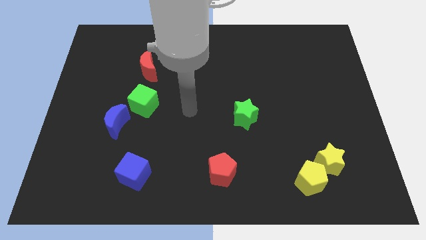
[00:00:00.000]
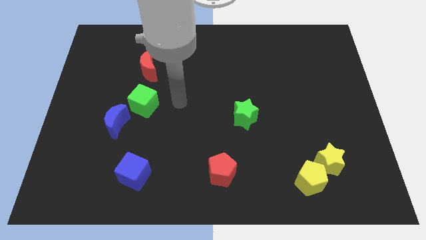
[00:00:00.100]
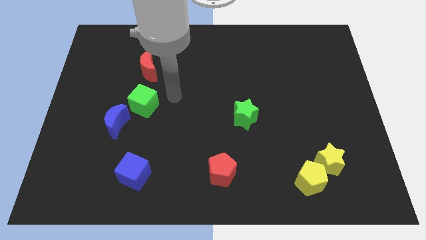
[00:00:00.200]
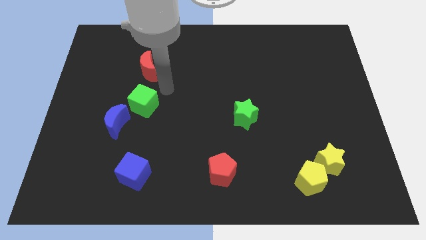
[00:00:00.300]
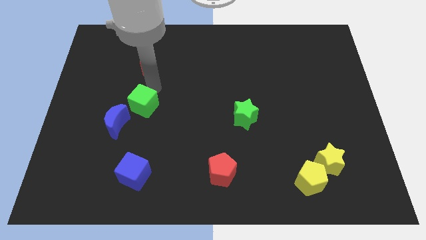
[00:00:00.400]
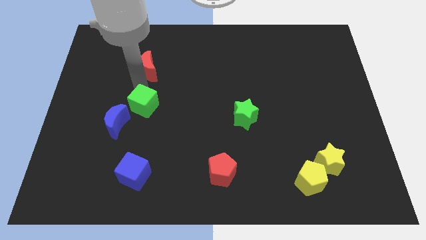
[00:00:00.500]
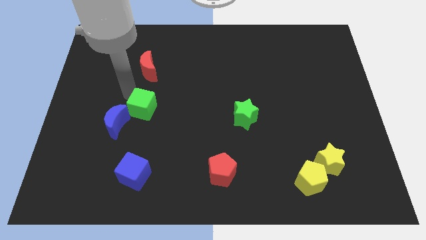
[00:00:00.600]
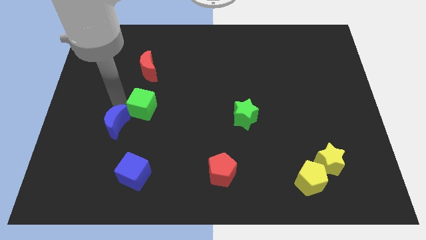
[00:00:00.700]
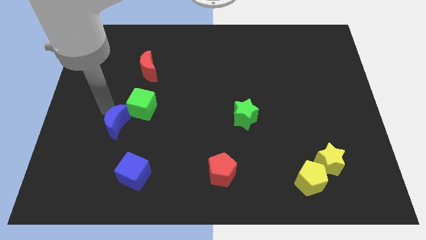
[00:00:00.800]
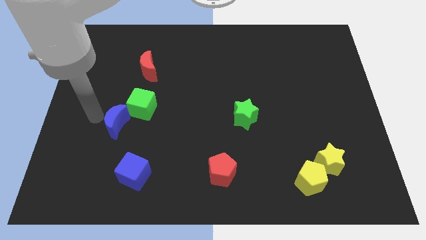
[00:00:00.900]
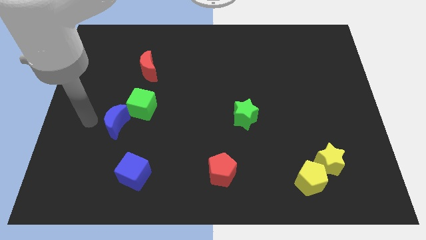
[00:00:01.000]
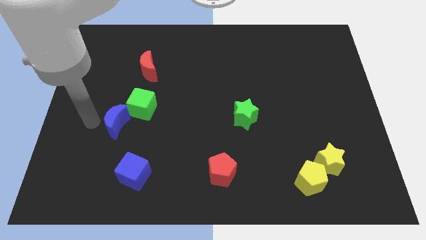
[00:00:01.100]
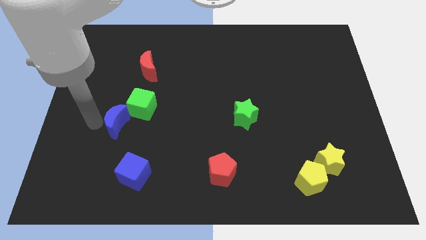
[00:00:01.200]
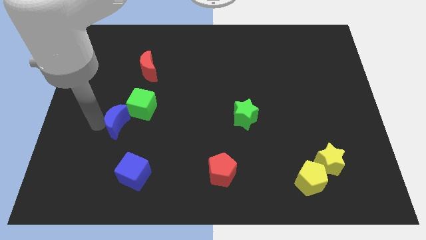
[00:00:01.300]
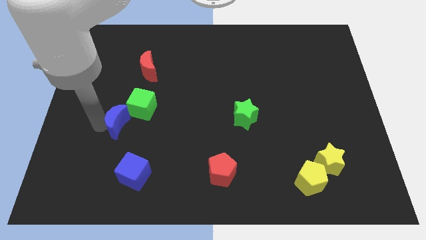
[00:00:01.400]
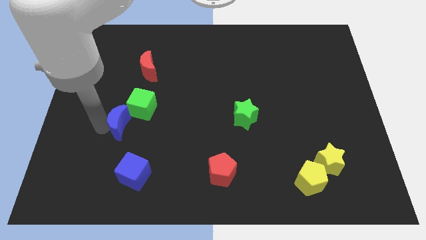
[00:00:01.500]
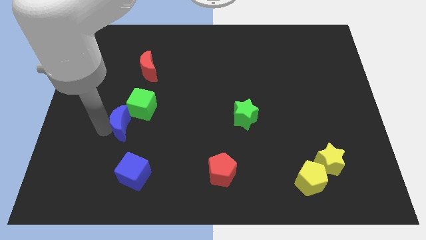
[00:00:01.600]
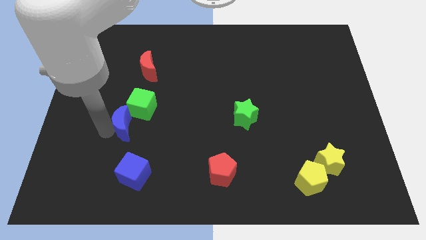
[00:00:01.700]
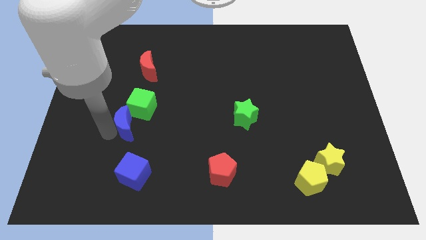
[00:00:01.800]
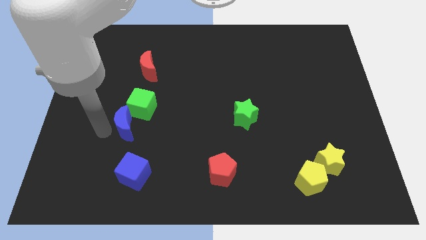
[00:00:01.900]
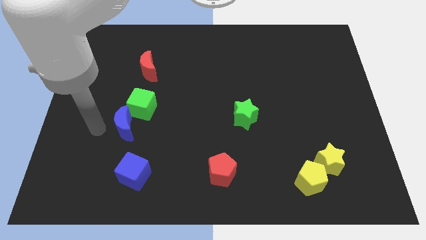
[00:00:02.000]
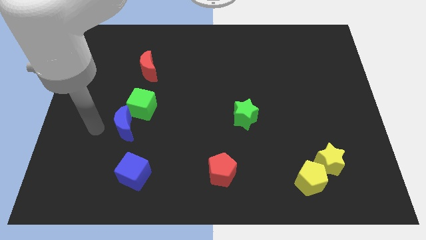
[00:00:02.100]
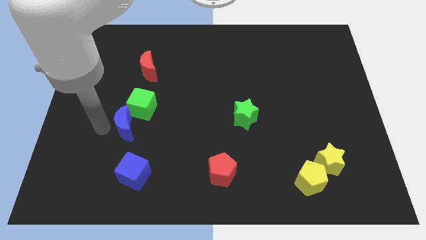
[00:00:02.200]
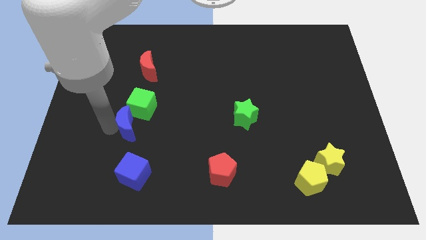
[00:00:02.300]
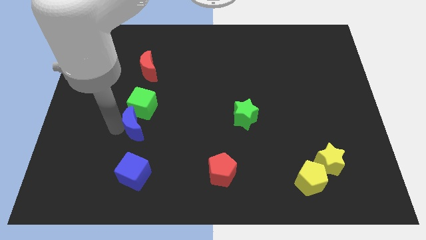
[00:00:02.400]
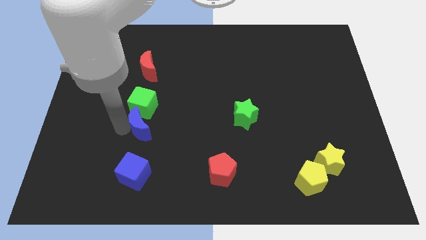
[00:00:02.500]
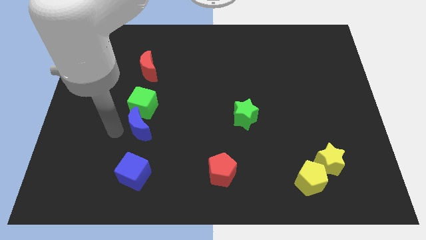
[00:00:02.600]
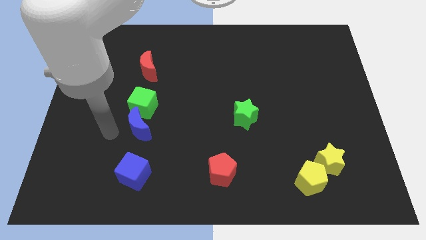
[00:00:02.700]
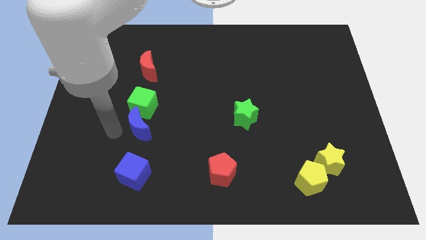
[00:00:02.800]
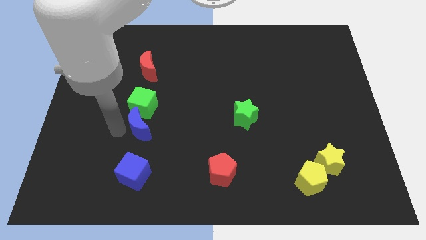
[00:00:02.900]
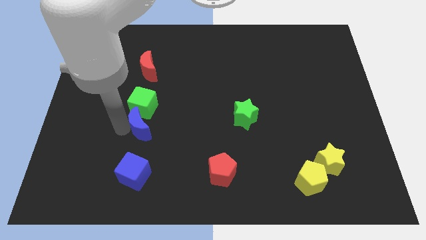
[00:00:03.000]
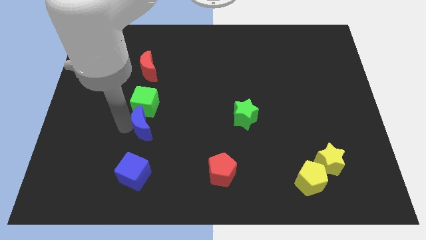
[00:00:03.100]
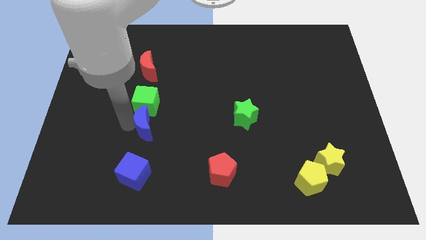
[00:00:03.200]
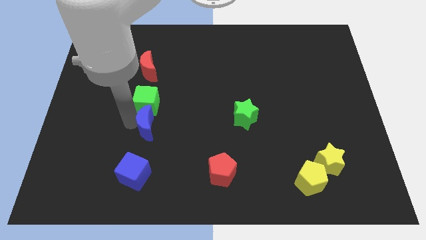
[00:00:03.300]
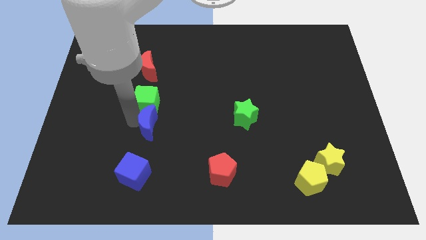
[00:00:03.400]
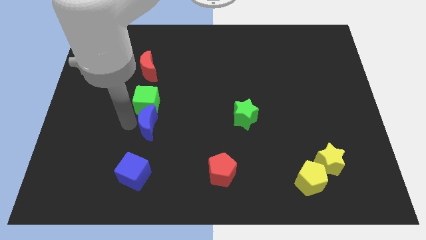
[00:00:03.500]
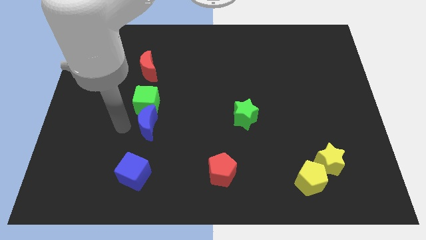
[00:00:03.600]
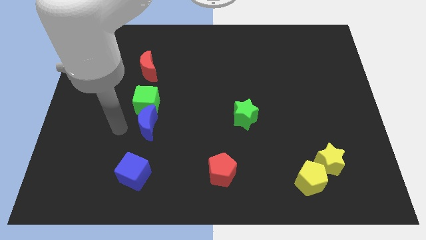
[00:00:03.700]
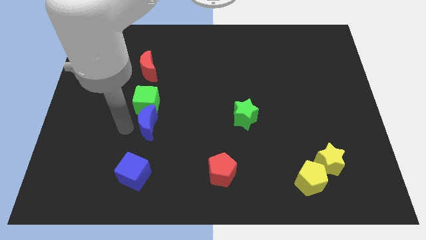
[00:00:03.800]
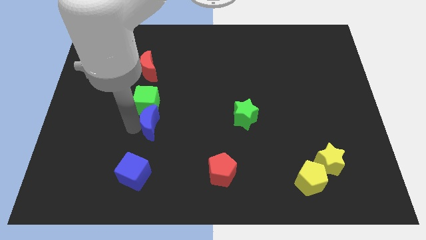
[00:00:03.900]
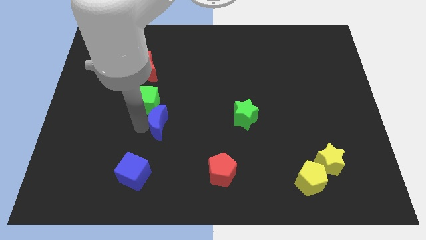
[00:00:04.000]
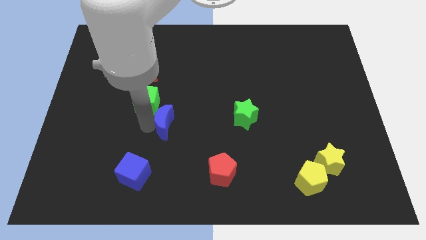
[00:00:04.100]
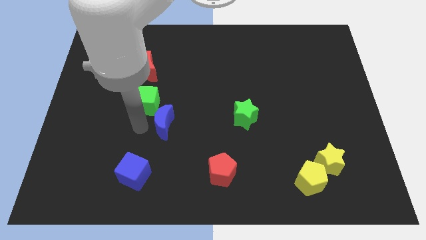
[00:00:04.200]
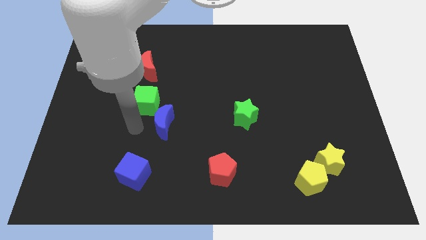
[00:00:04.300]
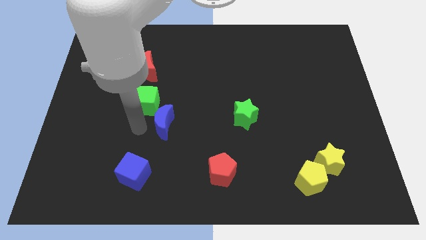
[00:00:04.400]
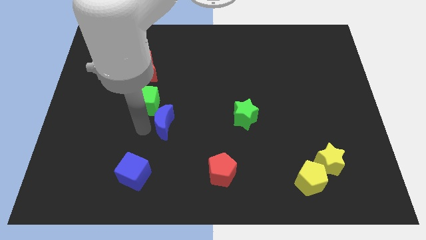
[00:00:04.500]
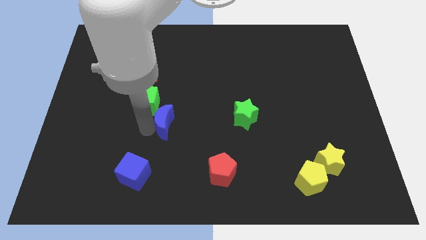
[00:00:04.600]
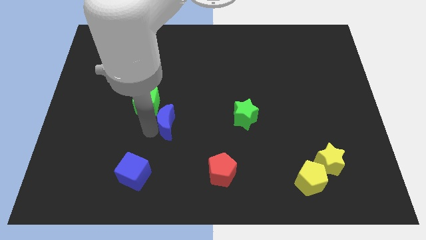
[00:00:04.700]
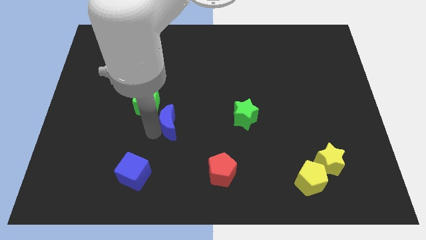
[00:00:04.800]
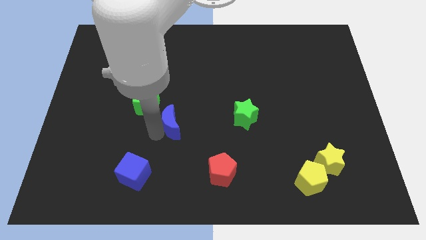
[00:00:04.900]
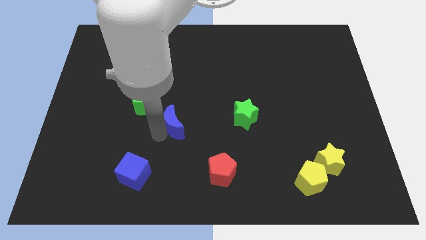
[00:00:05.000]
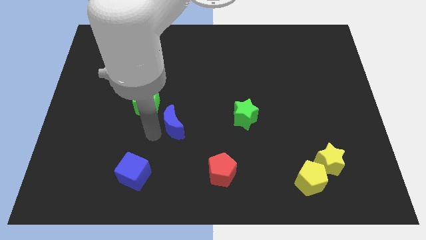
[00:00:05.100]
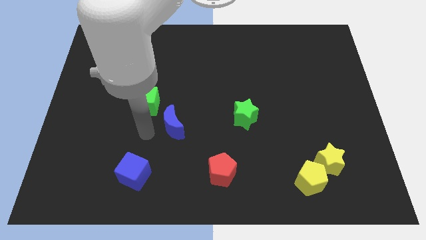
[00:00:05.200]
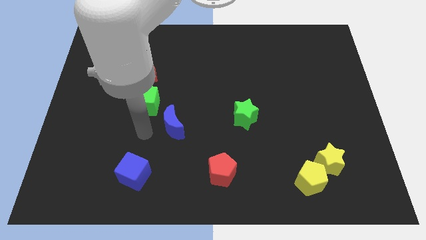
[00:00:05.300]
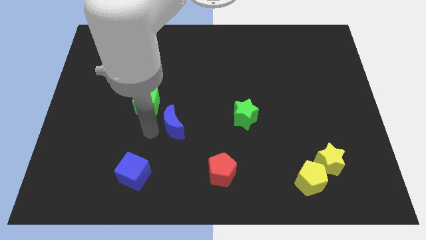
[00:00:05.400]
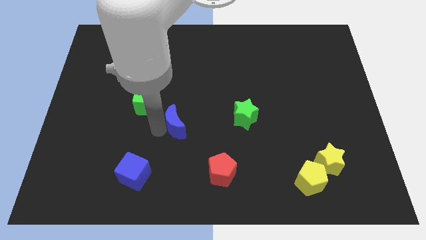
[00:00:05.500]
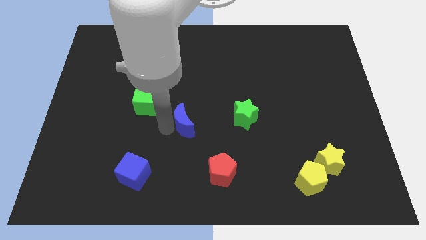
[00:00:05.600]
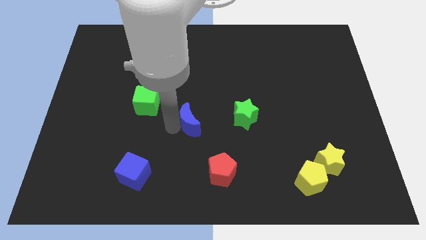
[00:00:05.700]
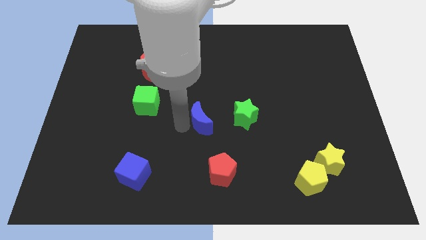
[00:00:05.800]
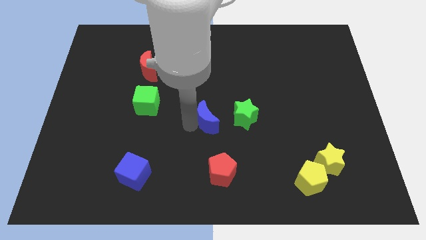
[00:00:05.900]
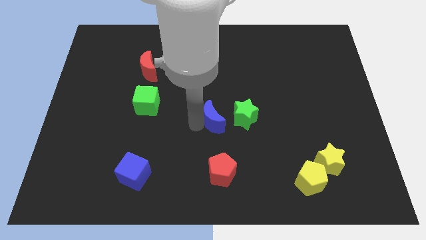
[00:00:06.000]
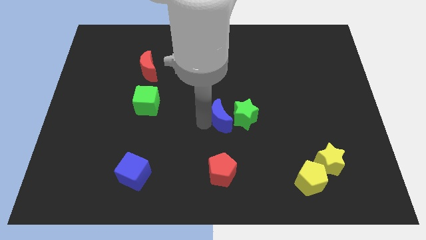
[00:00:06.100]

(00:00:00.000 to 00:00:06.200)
move the blue moon next to the green star

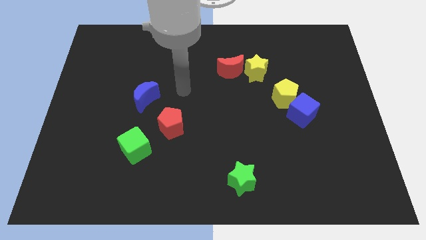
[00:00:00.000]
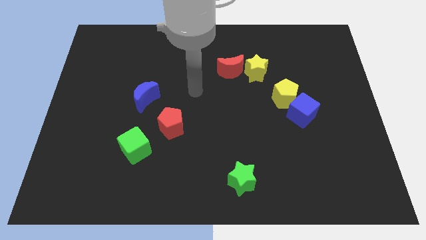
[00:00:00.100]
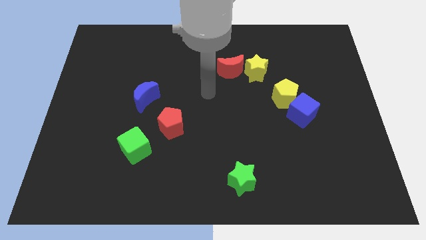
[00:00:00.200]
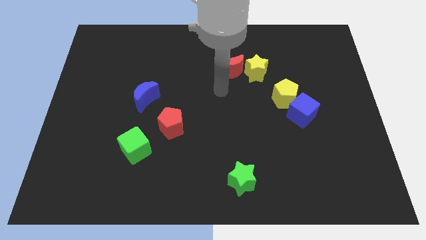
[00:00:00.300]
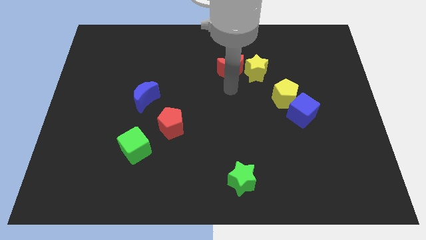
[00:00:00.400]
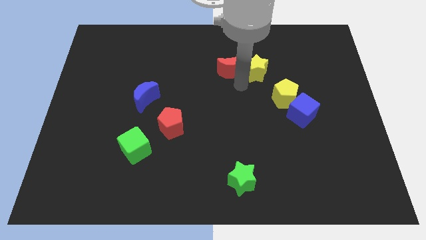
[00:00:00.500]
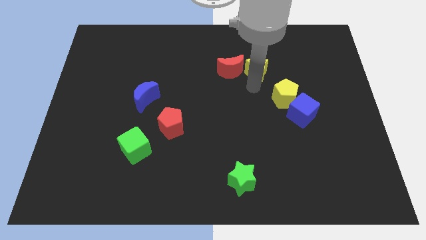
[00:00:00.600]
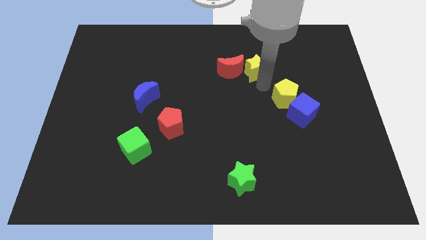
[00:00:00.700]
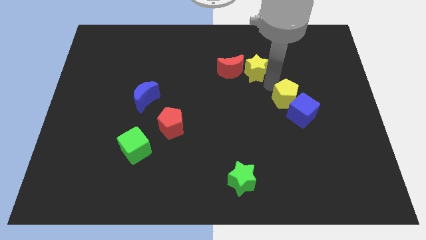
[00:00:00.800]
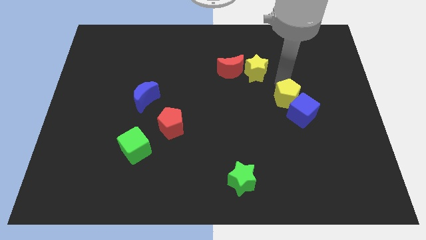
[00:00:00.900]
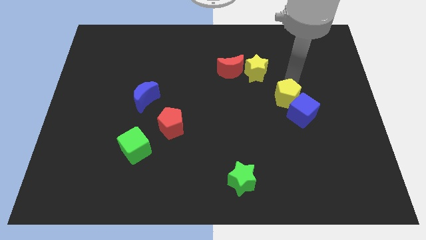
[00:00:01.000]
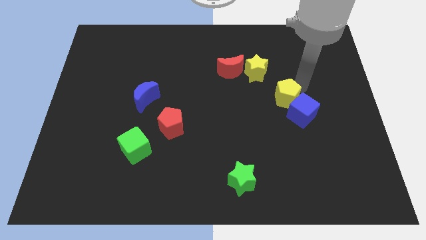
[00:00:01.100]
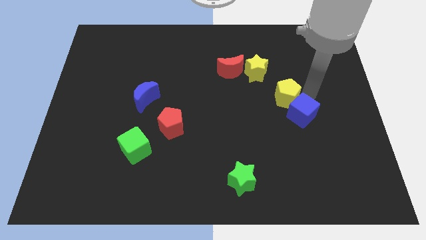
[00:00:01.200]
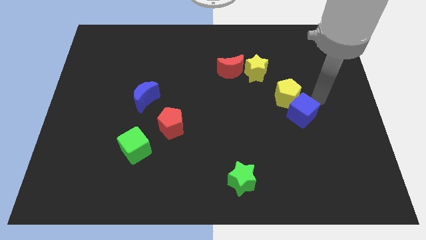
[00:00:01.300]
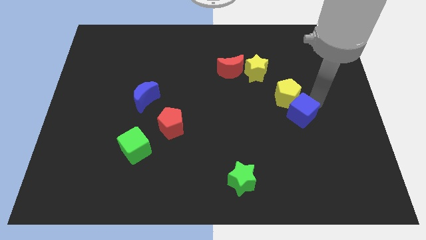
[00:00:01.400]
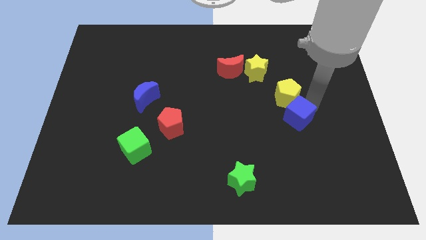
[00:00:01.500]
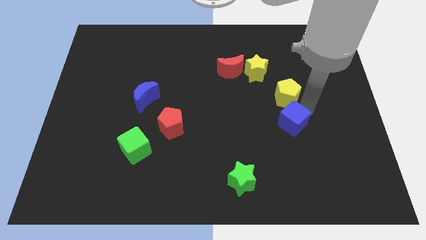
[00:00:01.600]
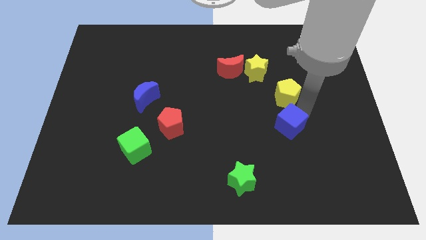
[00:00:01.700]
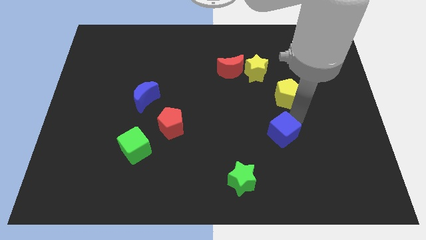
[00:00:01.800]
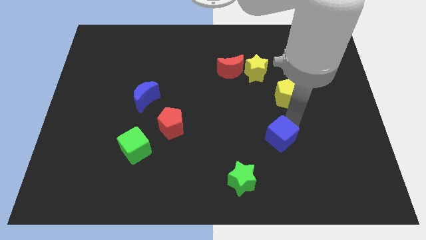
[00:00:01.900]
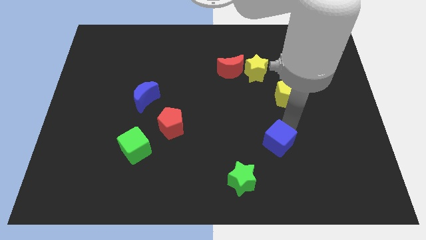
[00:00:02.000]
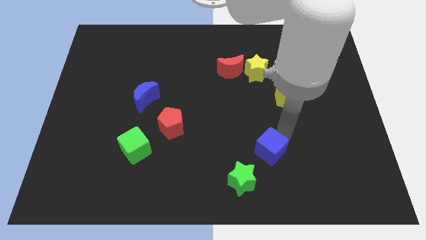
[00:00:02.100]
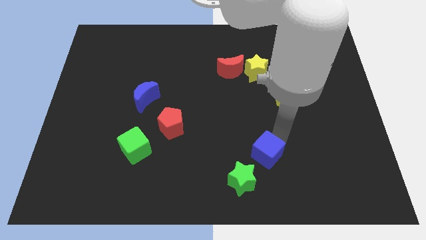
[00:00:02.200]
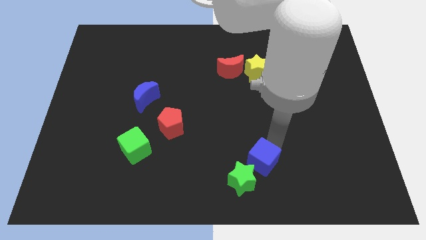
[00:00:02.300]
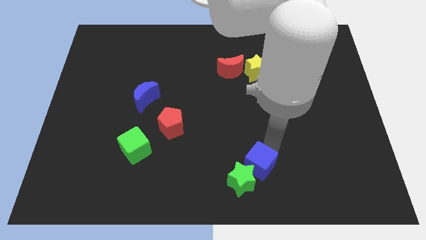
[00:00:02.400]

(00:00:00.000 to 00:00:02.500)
slide the blue cube towards the green star
